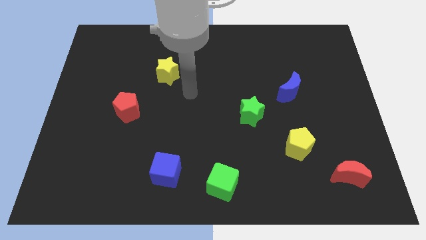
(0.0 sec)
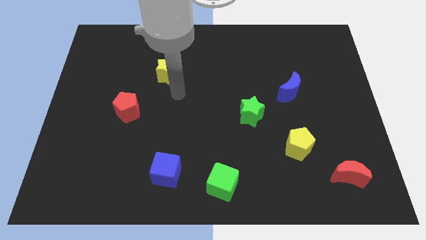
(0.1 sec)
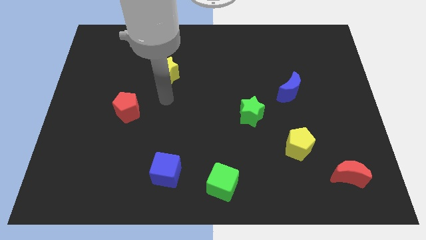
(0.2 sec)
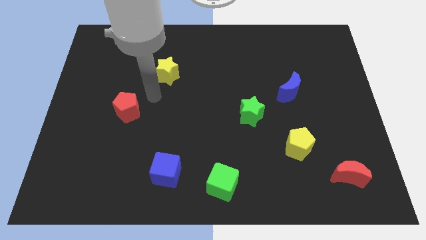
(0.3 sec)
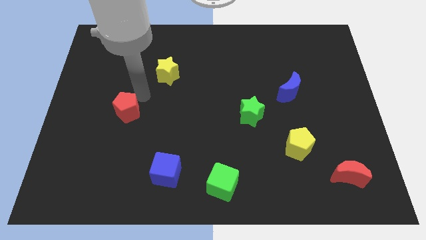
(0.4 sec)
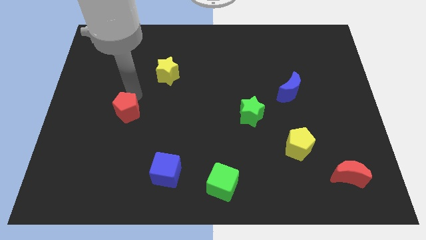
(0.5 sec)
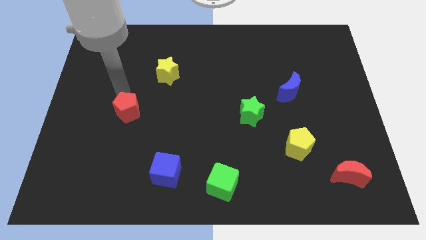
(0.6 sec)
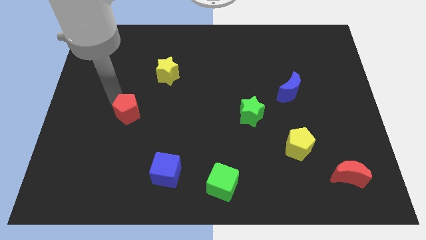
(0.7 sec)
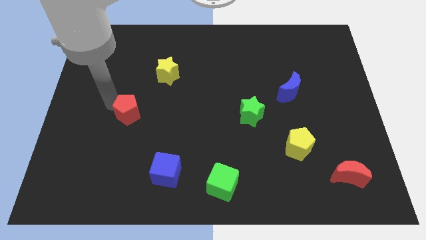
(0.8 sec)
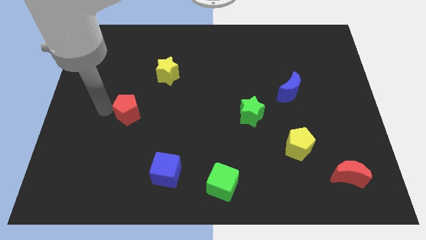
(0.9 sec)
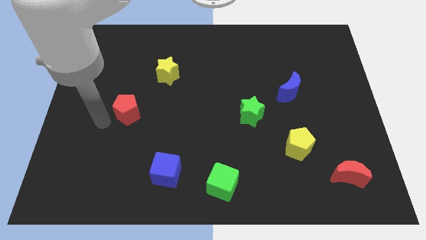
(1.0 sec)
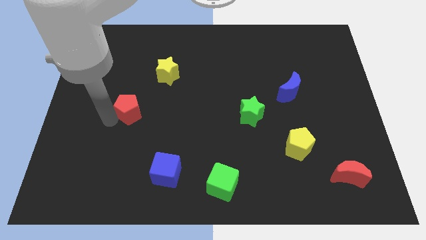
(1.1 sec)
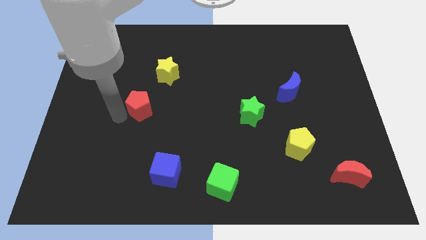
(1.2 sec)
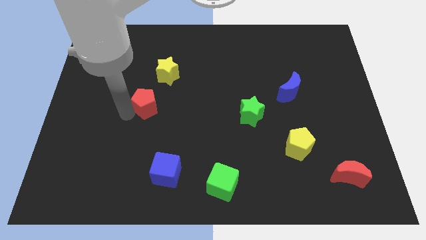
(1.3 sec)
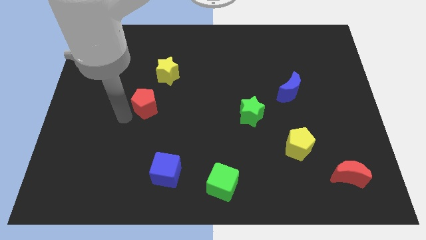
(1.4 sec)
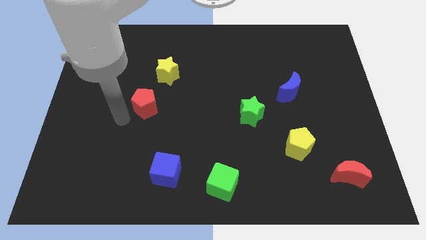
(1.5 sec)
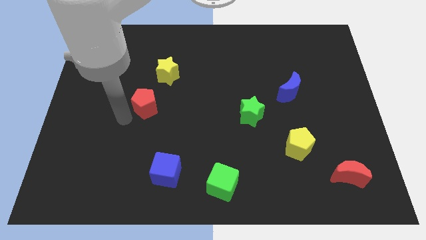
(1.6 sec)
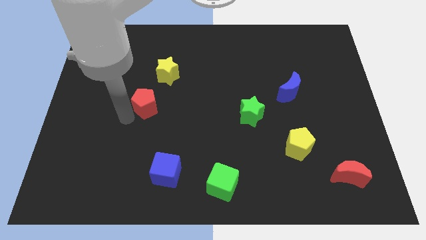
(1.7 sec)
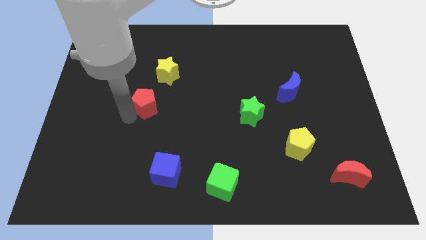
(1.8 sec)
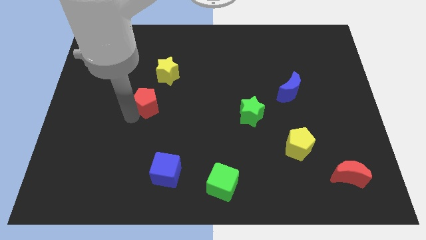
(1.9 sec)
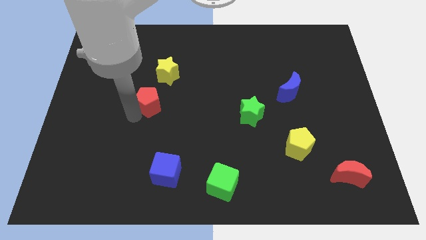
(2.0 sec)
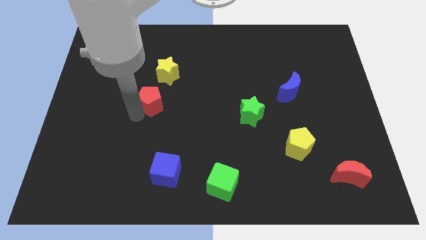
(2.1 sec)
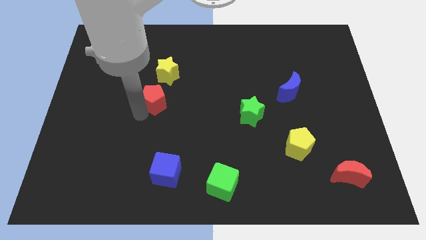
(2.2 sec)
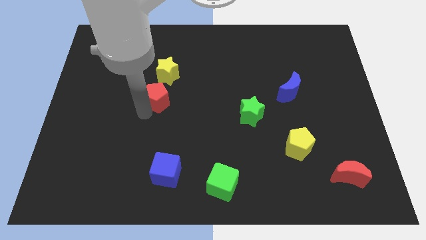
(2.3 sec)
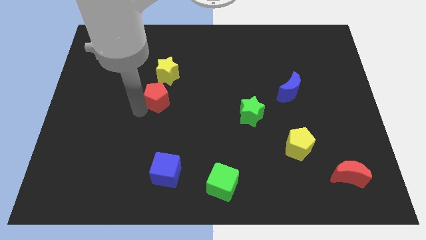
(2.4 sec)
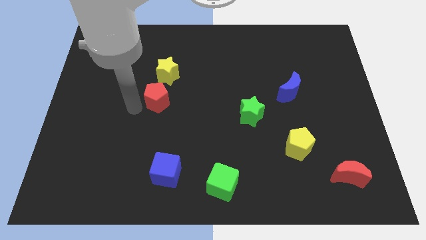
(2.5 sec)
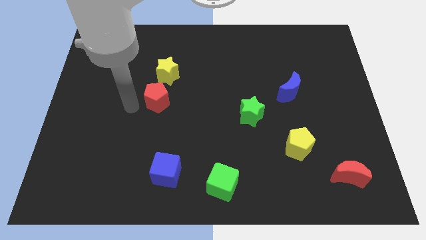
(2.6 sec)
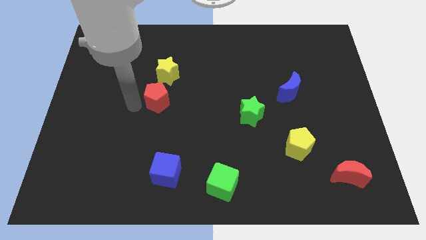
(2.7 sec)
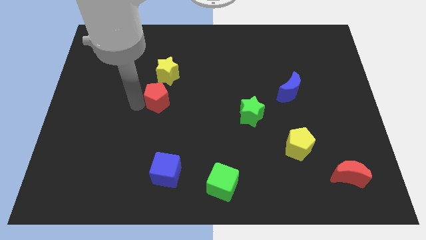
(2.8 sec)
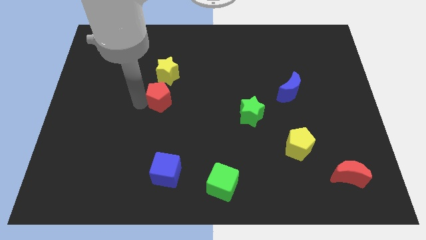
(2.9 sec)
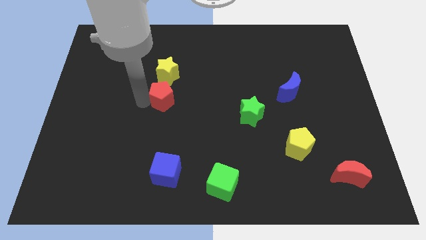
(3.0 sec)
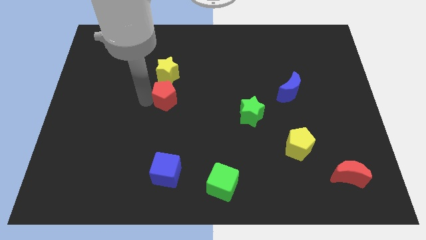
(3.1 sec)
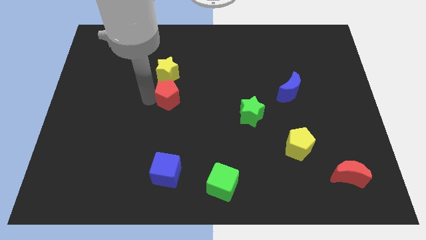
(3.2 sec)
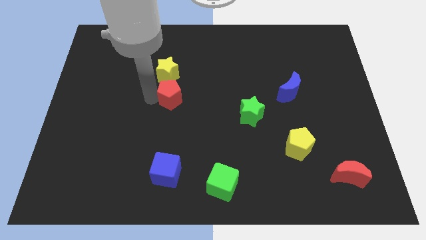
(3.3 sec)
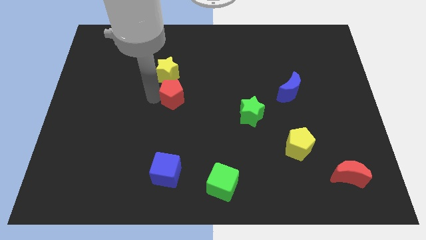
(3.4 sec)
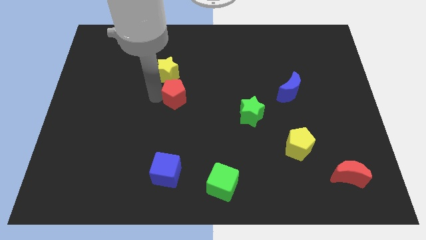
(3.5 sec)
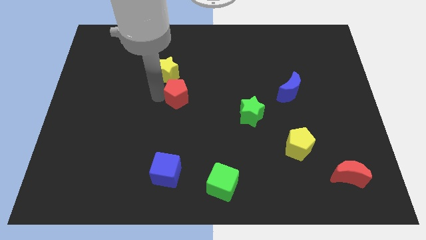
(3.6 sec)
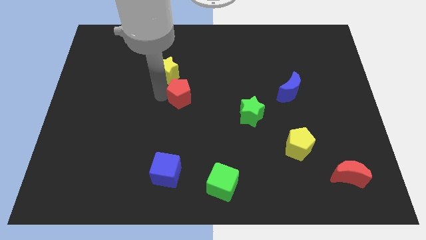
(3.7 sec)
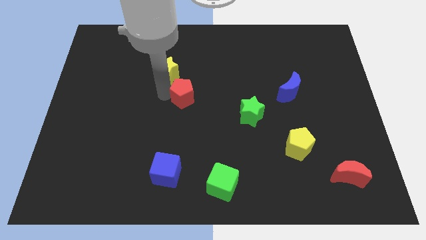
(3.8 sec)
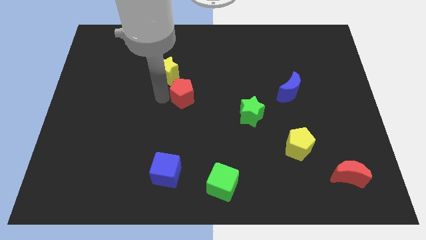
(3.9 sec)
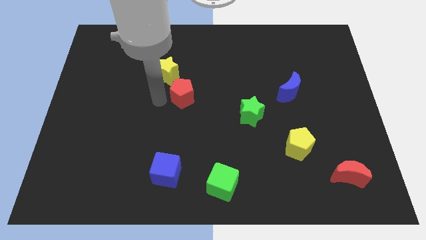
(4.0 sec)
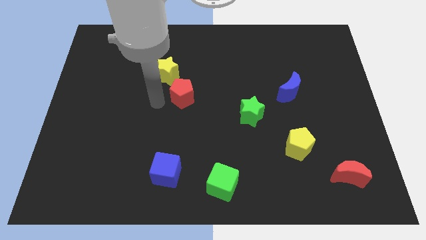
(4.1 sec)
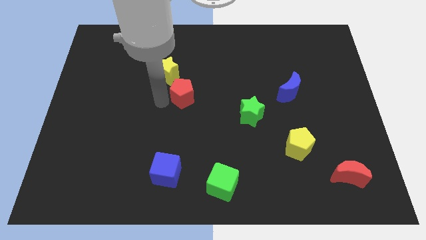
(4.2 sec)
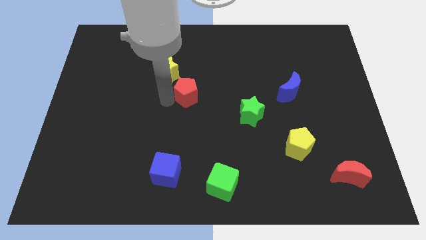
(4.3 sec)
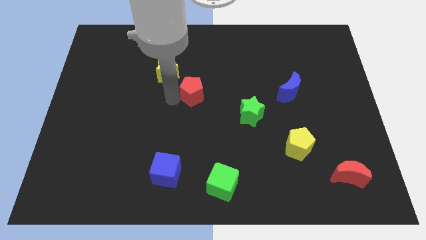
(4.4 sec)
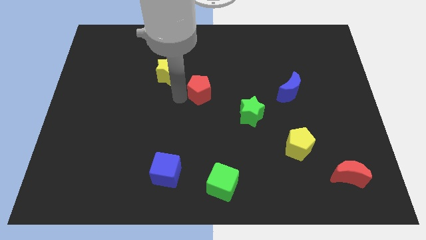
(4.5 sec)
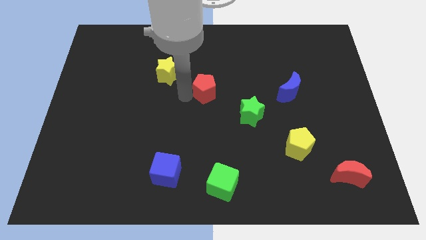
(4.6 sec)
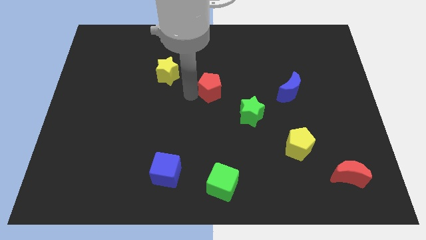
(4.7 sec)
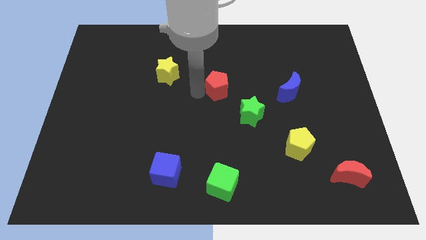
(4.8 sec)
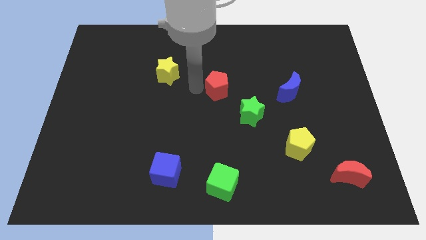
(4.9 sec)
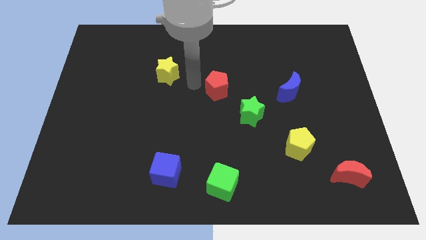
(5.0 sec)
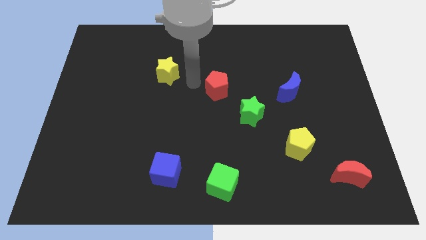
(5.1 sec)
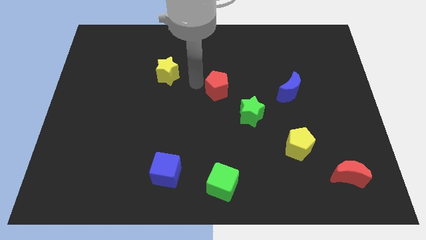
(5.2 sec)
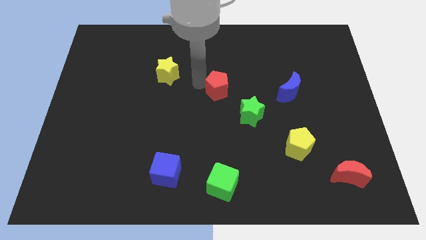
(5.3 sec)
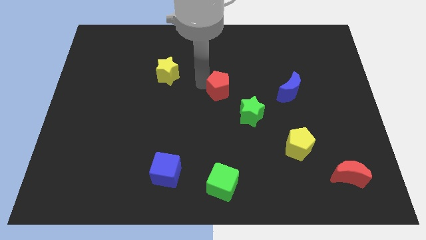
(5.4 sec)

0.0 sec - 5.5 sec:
slide the red pentagon right

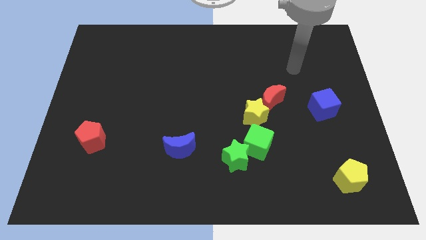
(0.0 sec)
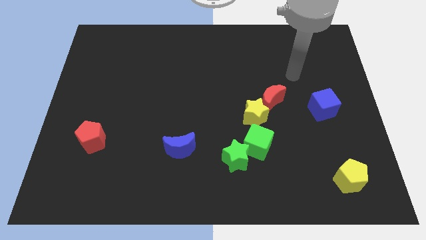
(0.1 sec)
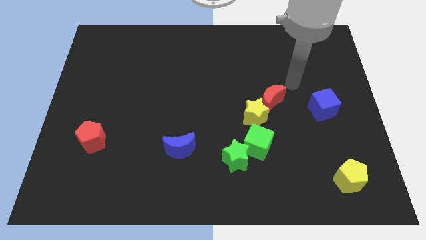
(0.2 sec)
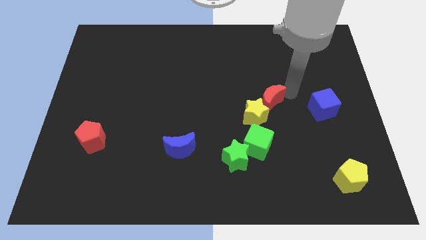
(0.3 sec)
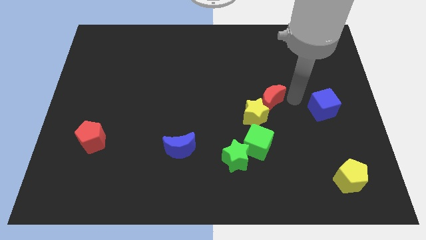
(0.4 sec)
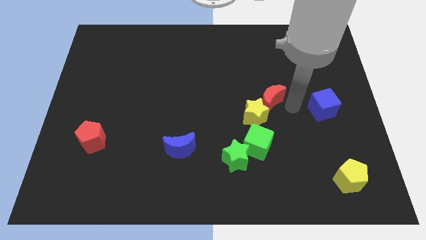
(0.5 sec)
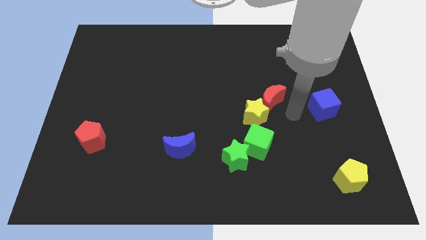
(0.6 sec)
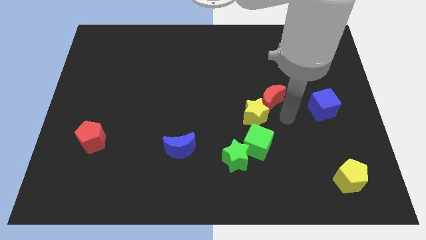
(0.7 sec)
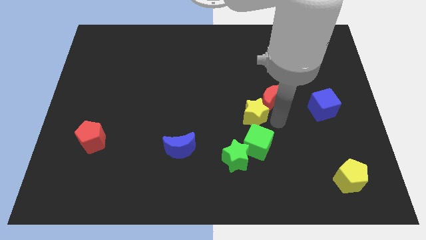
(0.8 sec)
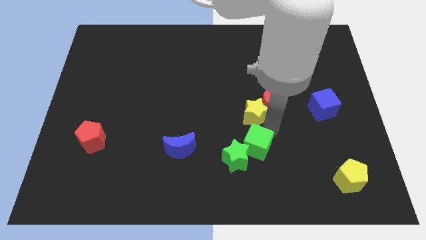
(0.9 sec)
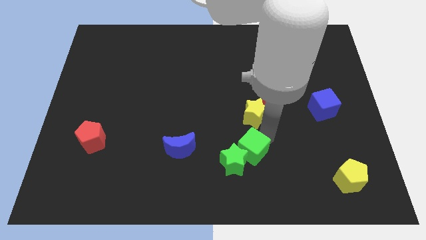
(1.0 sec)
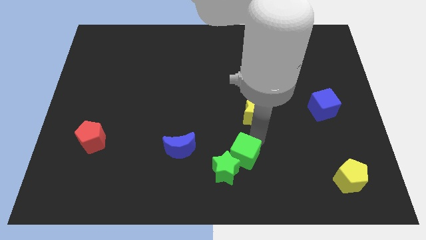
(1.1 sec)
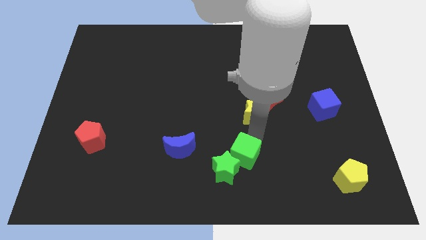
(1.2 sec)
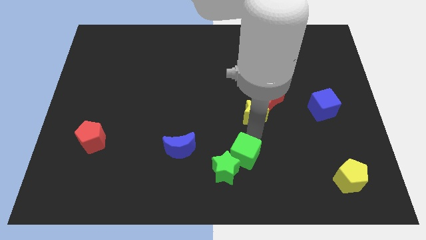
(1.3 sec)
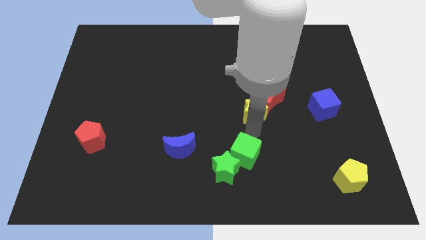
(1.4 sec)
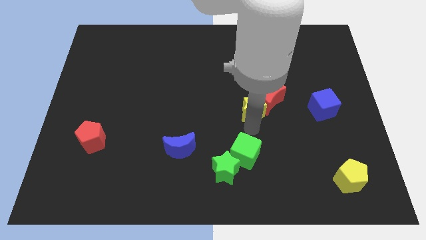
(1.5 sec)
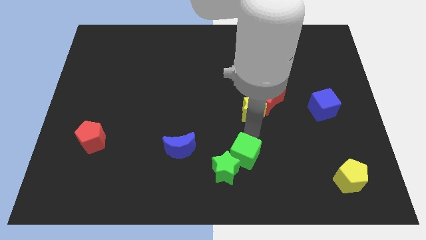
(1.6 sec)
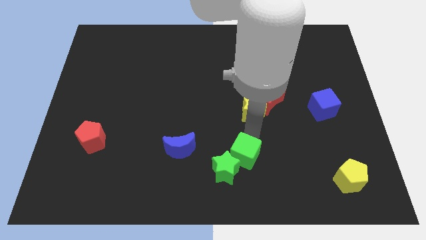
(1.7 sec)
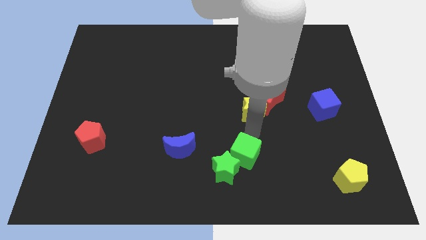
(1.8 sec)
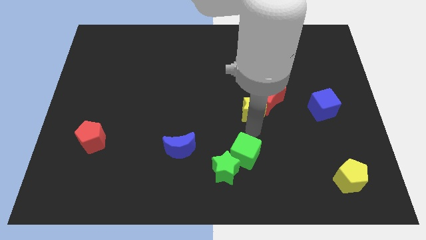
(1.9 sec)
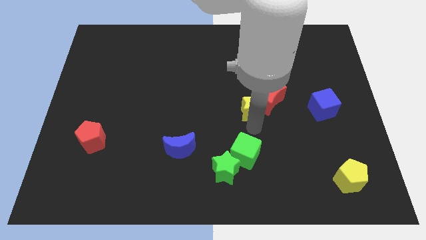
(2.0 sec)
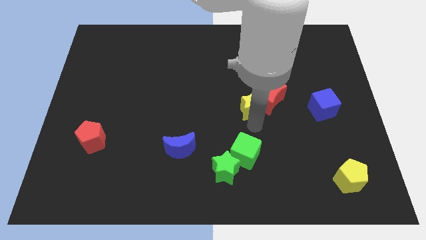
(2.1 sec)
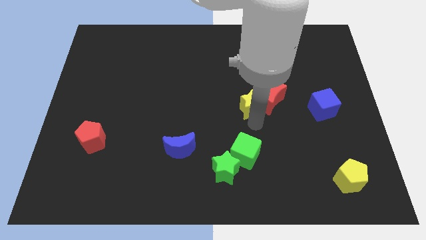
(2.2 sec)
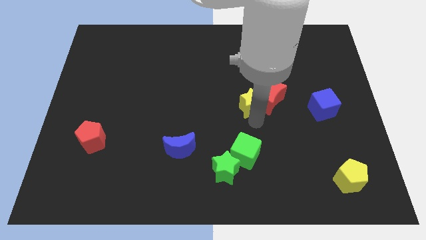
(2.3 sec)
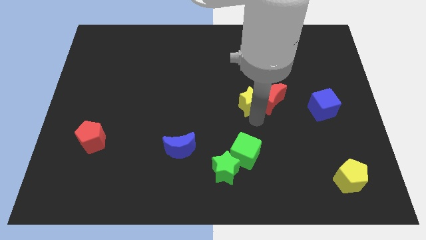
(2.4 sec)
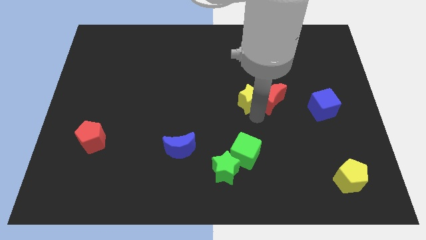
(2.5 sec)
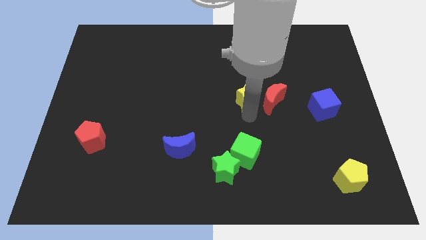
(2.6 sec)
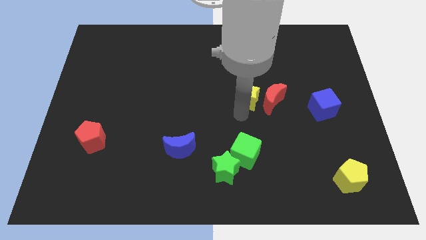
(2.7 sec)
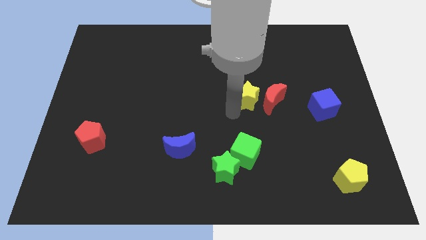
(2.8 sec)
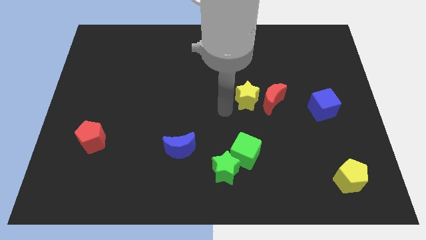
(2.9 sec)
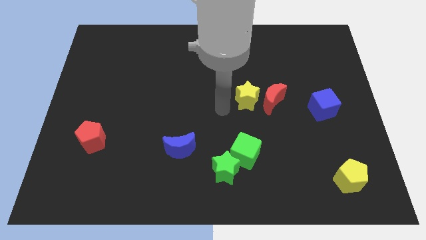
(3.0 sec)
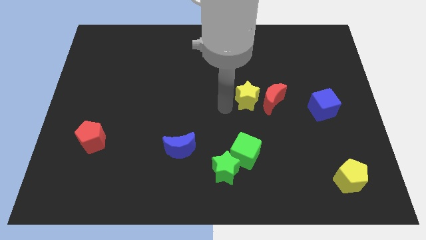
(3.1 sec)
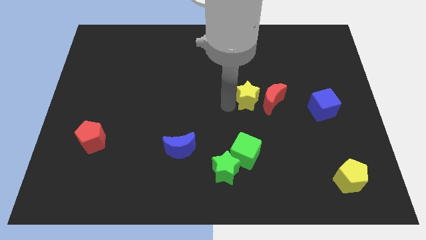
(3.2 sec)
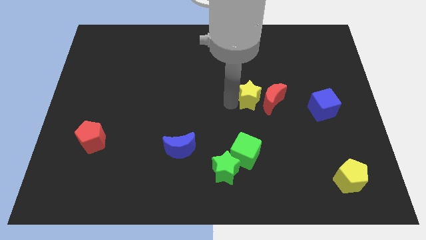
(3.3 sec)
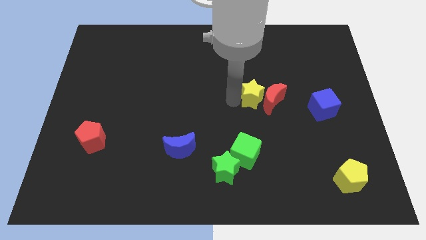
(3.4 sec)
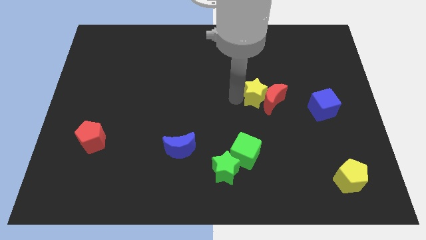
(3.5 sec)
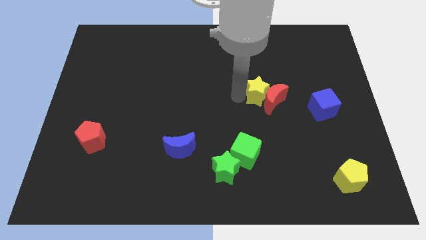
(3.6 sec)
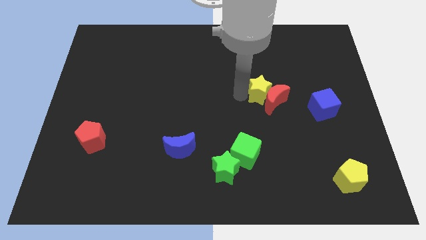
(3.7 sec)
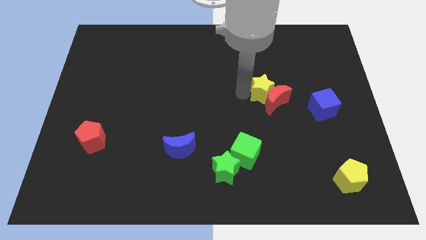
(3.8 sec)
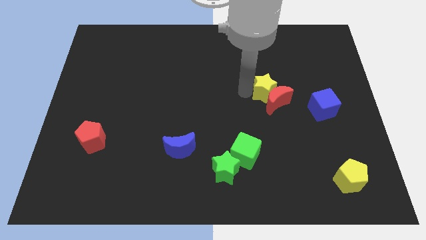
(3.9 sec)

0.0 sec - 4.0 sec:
move the yellow star slightly diagonally up and to the right
